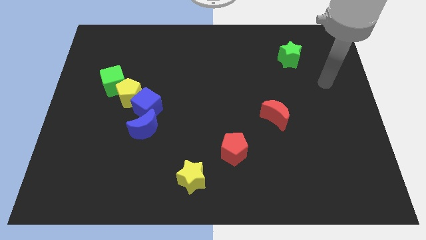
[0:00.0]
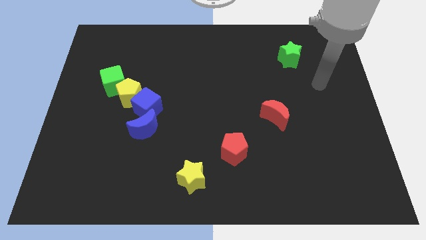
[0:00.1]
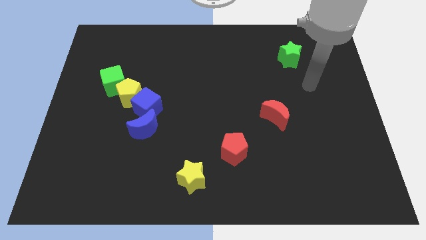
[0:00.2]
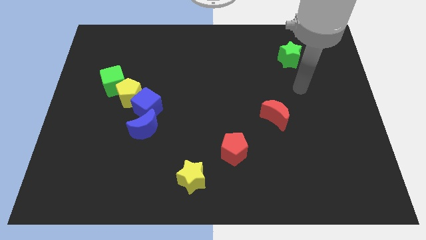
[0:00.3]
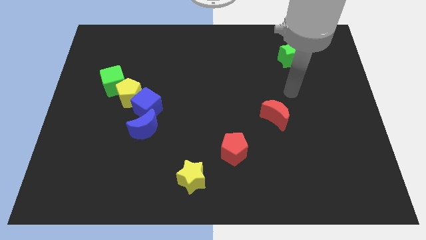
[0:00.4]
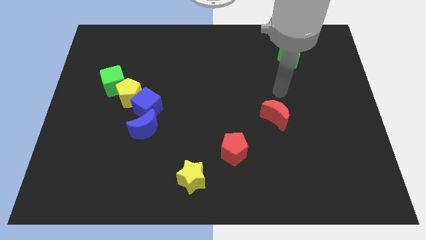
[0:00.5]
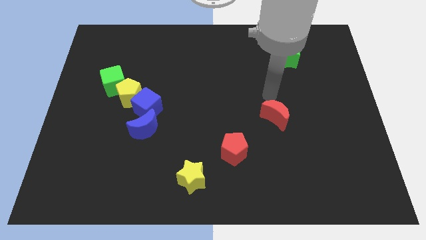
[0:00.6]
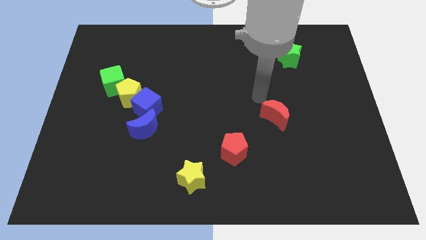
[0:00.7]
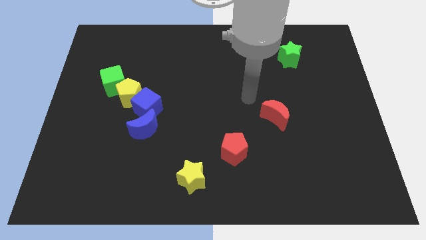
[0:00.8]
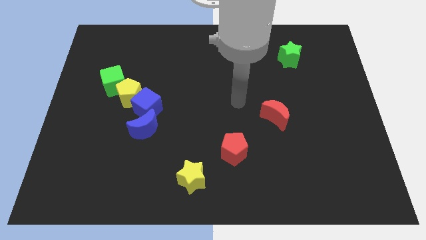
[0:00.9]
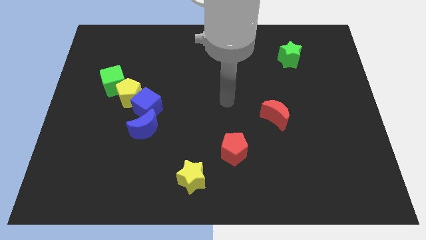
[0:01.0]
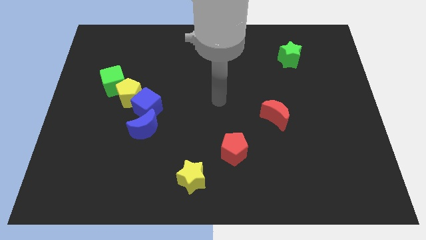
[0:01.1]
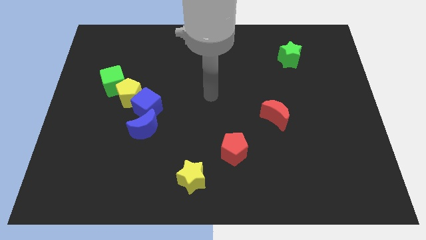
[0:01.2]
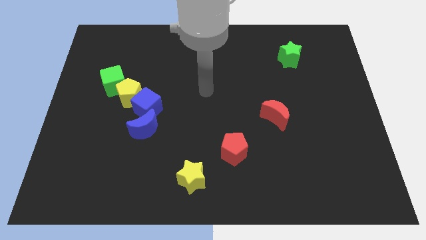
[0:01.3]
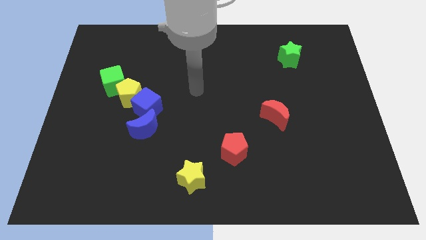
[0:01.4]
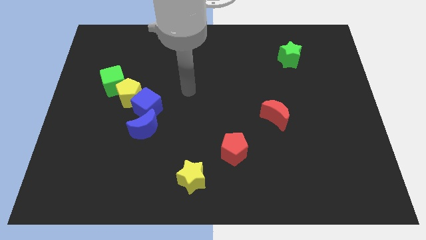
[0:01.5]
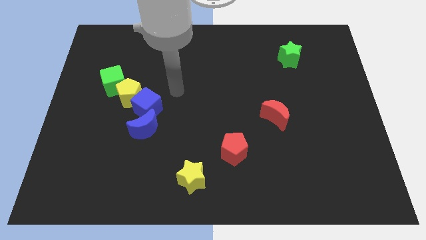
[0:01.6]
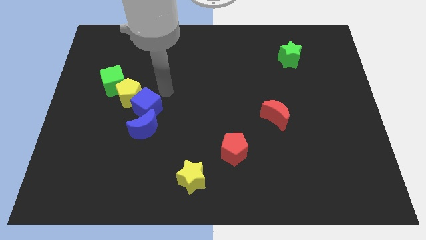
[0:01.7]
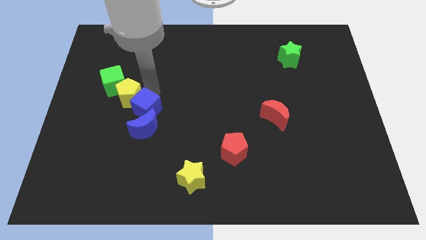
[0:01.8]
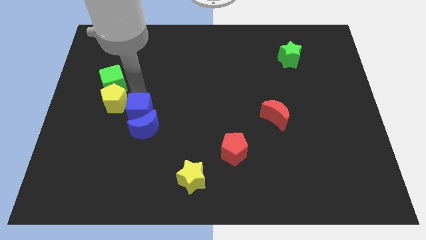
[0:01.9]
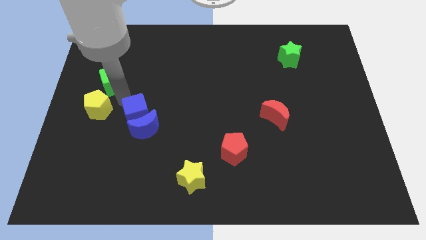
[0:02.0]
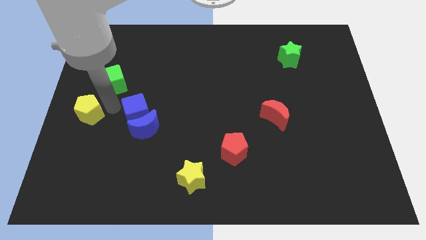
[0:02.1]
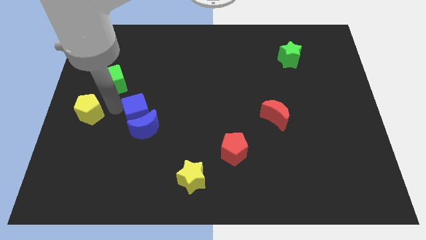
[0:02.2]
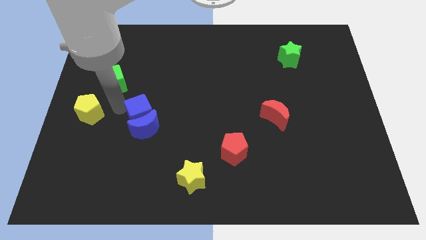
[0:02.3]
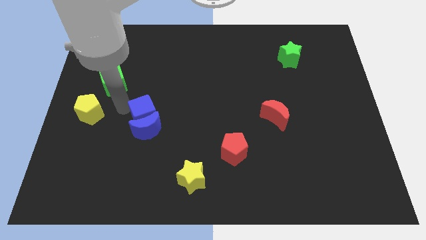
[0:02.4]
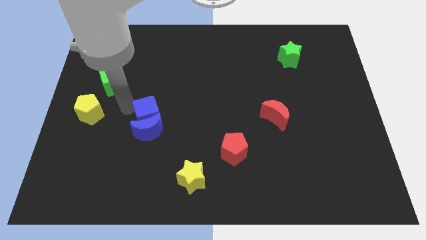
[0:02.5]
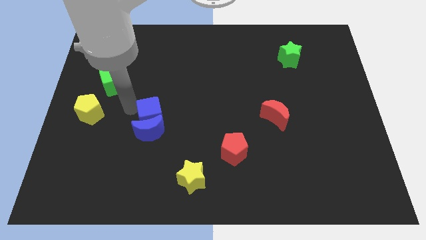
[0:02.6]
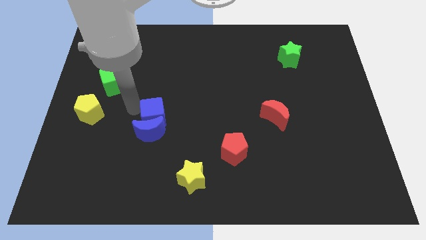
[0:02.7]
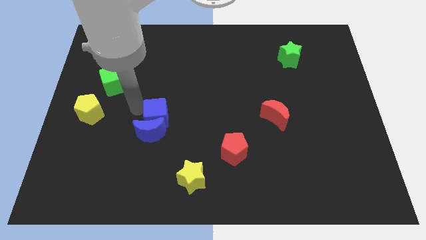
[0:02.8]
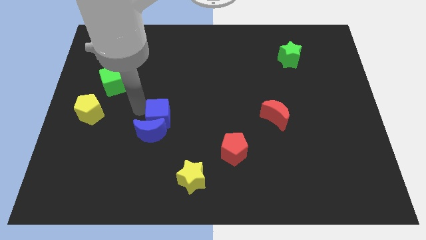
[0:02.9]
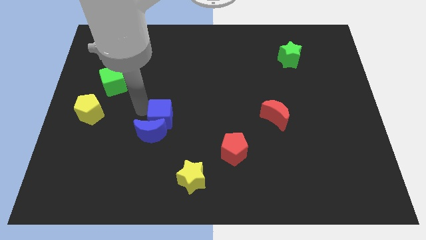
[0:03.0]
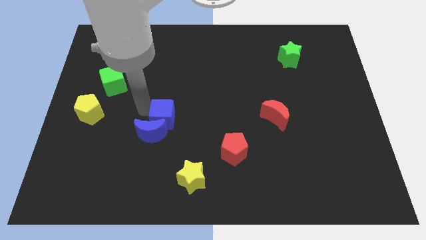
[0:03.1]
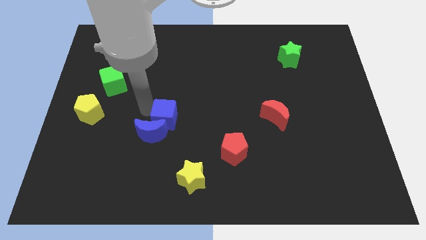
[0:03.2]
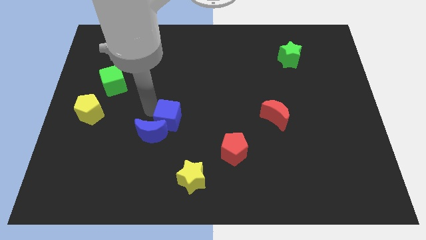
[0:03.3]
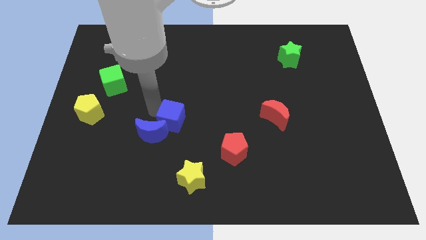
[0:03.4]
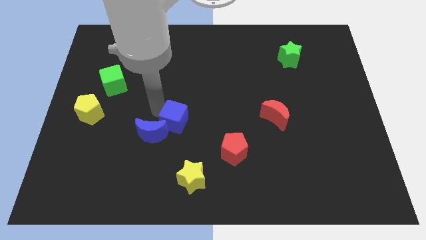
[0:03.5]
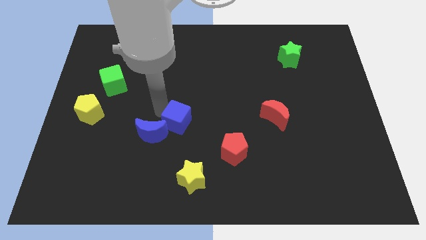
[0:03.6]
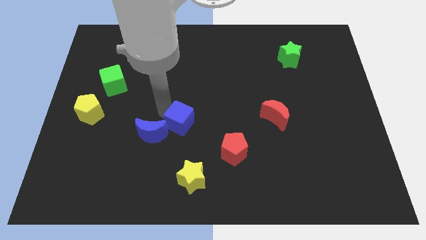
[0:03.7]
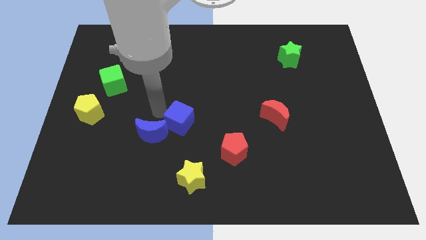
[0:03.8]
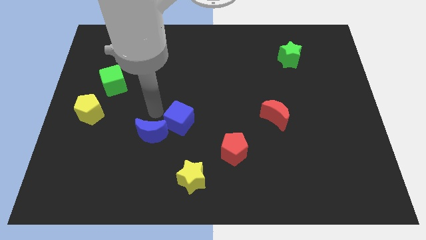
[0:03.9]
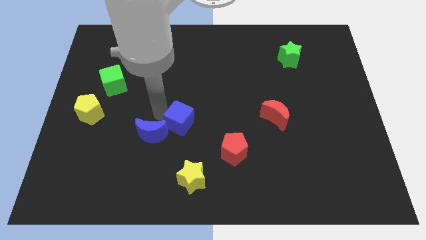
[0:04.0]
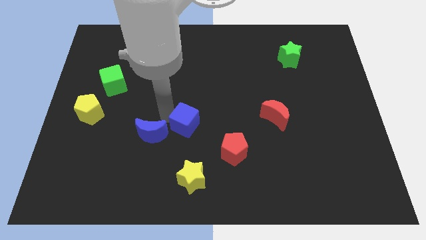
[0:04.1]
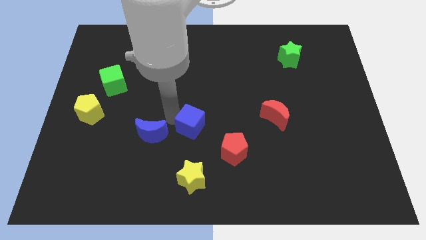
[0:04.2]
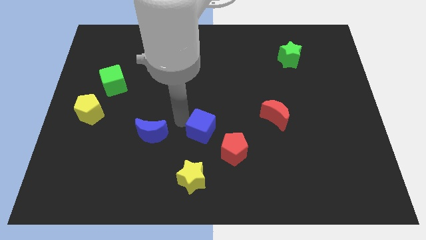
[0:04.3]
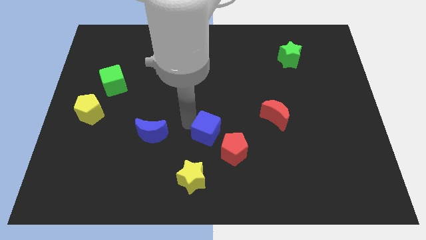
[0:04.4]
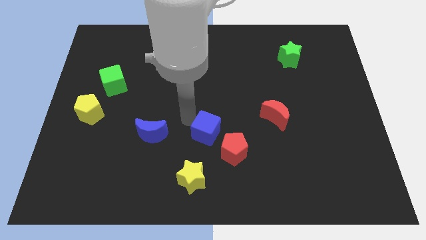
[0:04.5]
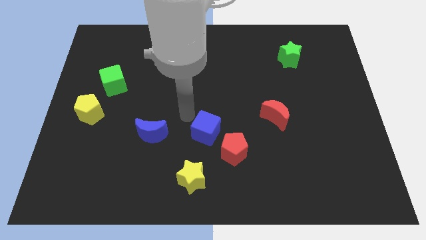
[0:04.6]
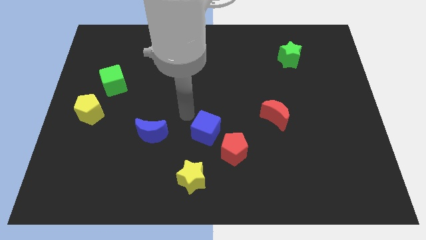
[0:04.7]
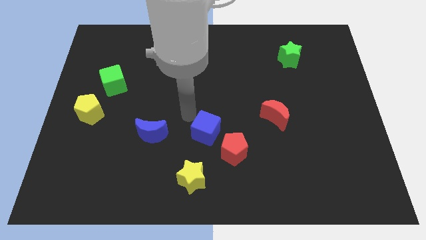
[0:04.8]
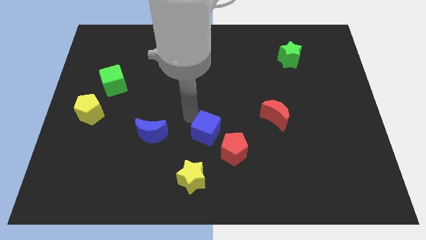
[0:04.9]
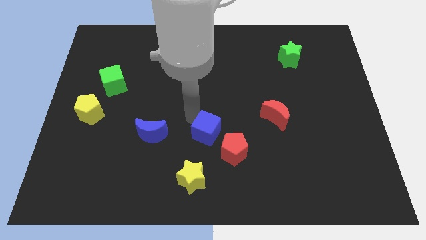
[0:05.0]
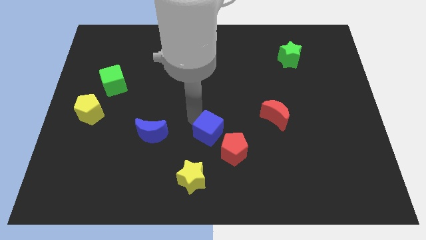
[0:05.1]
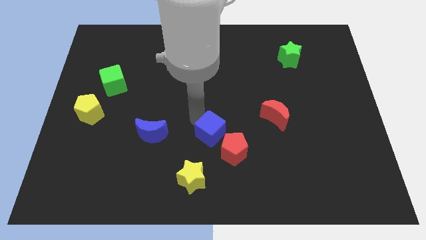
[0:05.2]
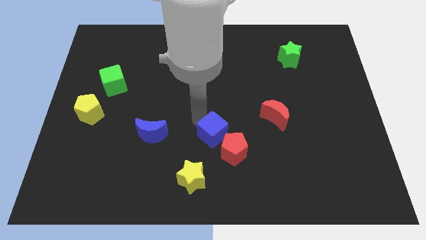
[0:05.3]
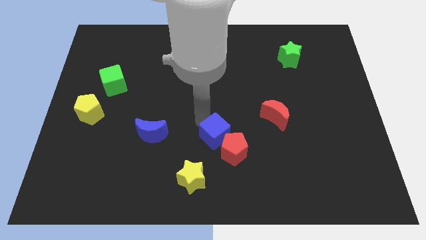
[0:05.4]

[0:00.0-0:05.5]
move the blue cube towards the red pentagon

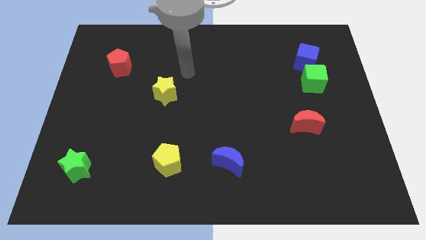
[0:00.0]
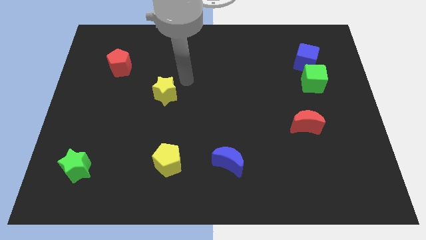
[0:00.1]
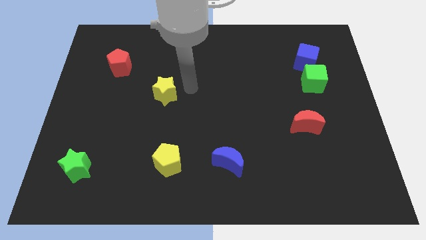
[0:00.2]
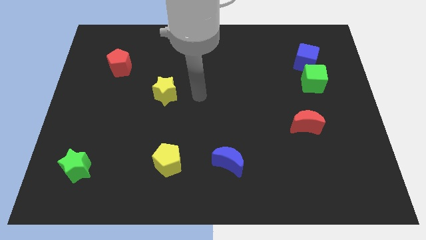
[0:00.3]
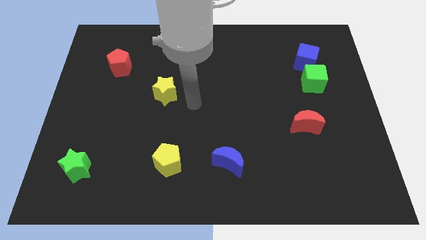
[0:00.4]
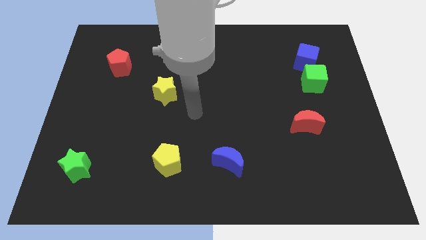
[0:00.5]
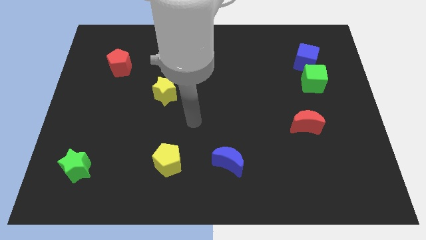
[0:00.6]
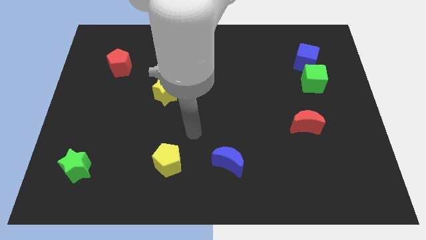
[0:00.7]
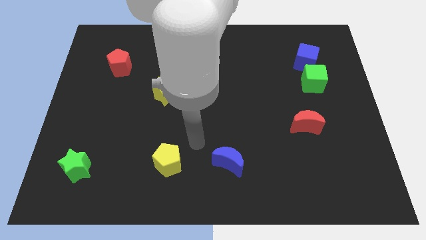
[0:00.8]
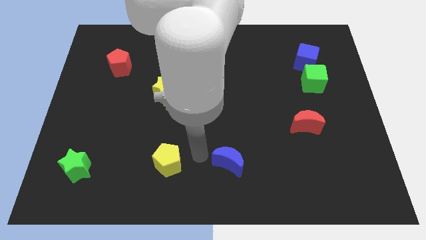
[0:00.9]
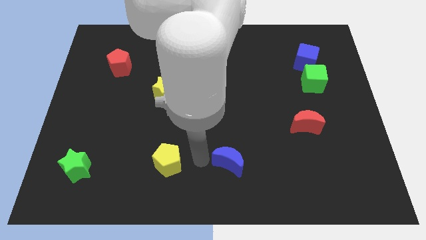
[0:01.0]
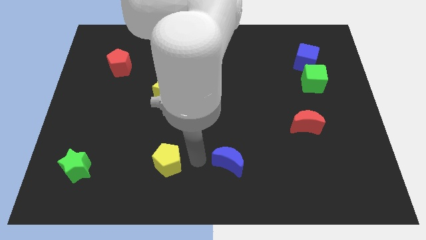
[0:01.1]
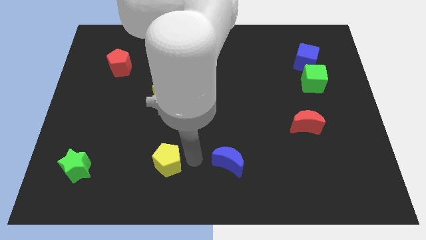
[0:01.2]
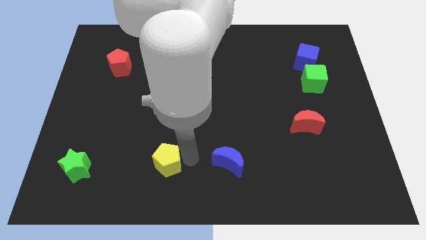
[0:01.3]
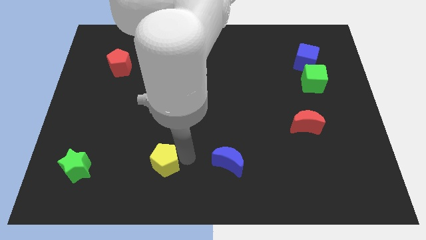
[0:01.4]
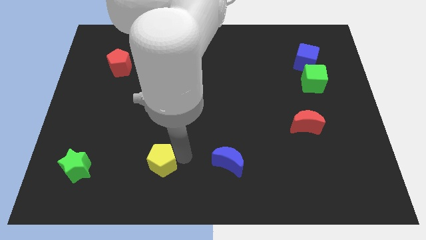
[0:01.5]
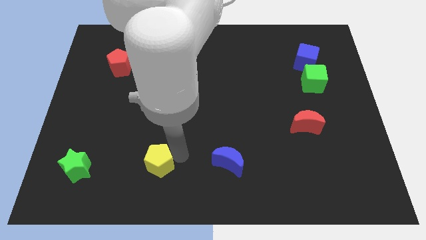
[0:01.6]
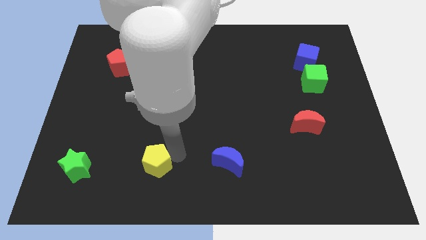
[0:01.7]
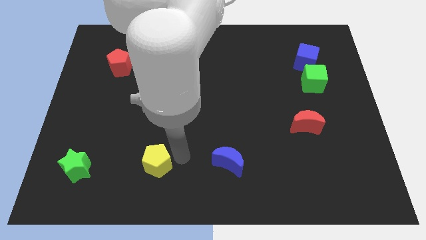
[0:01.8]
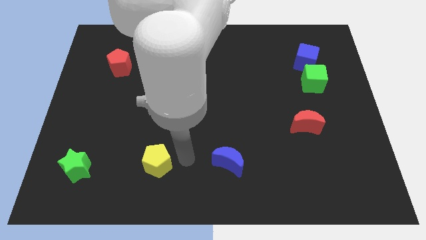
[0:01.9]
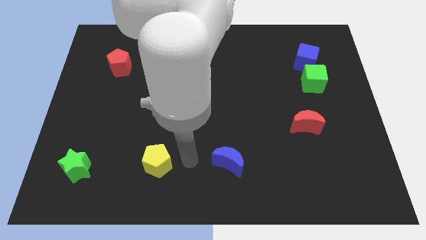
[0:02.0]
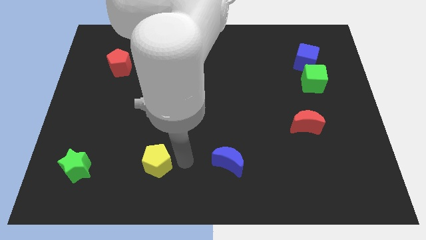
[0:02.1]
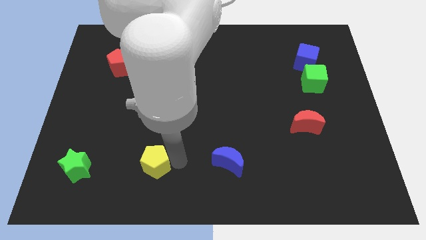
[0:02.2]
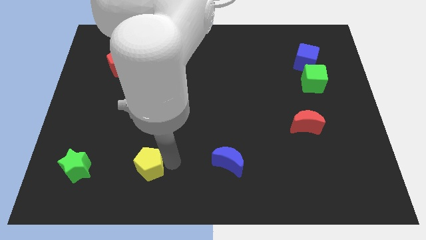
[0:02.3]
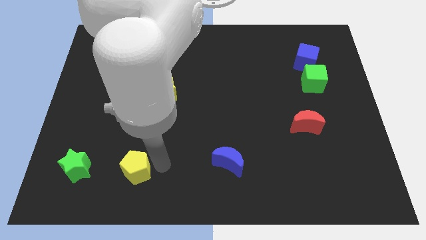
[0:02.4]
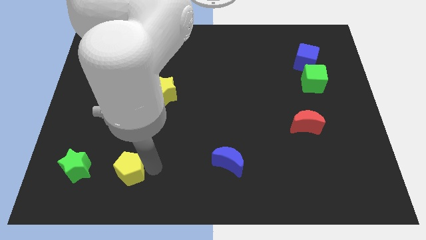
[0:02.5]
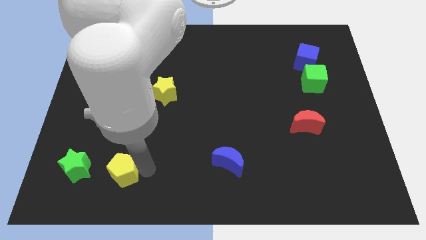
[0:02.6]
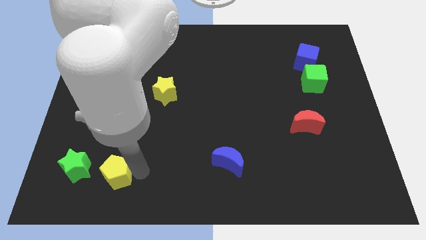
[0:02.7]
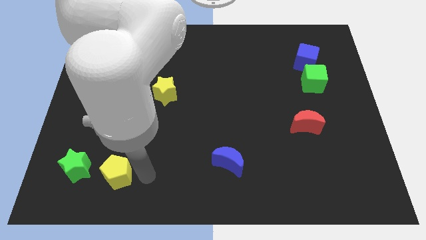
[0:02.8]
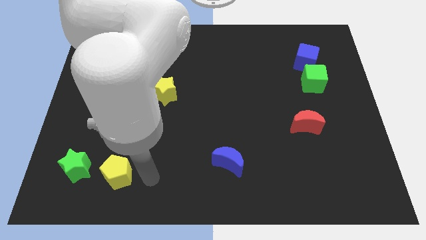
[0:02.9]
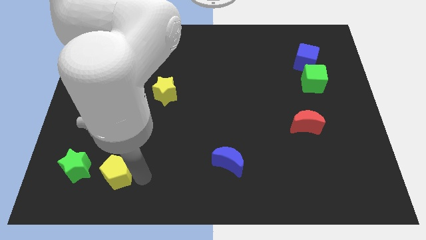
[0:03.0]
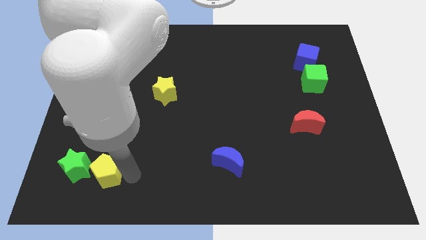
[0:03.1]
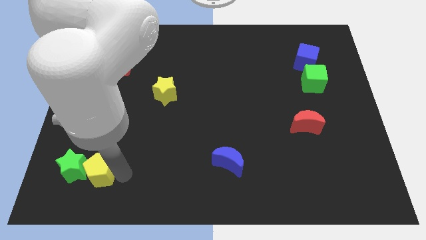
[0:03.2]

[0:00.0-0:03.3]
move the yellow pentagon next to the green star
